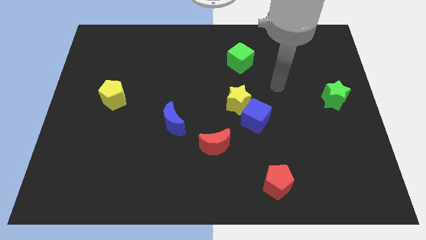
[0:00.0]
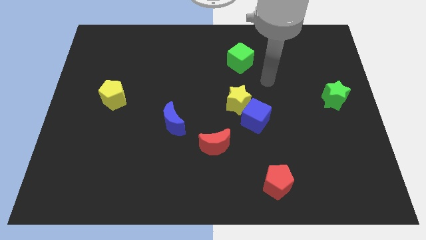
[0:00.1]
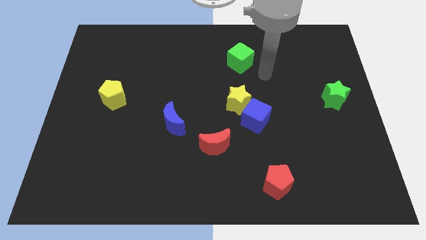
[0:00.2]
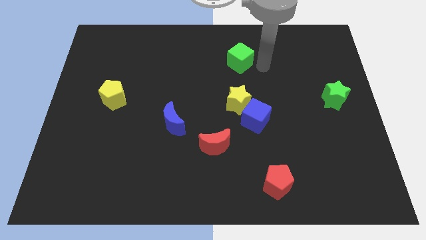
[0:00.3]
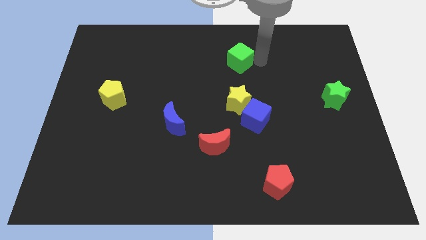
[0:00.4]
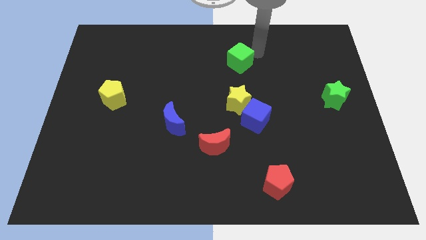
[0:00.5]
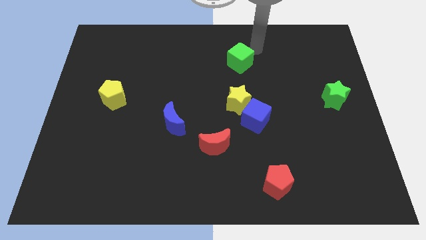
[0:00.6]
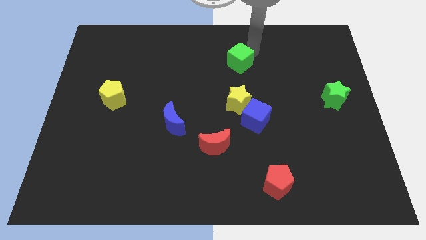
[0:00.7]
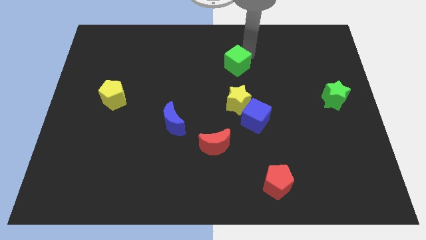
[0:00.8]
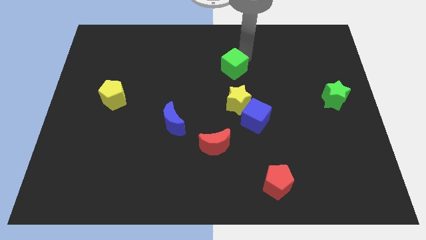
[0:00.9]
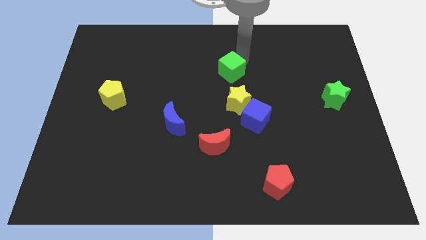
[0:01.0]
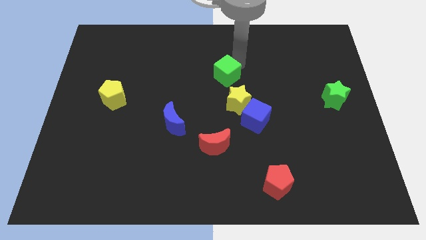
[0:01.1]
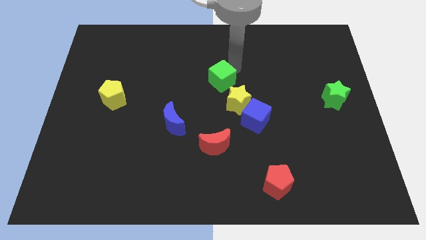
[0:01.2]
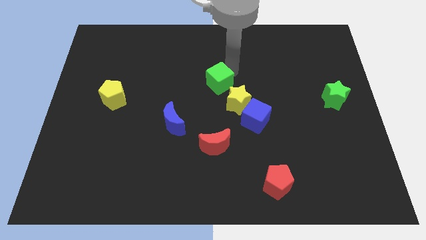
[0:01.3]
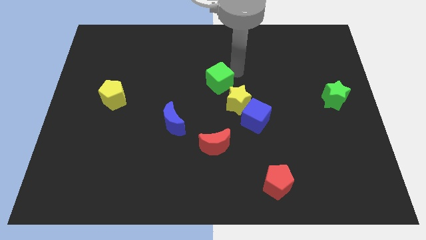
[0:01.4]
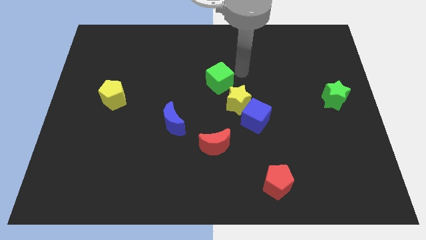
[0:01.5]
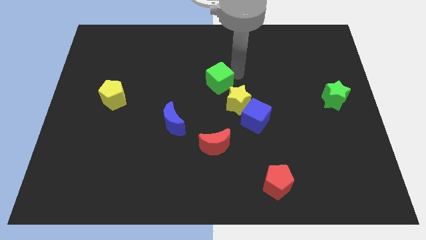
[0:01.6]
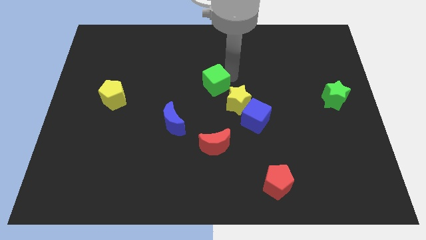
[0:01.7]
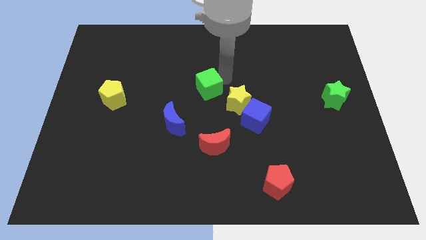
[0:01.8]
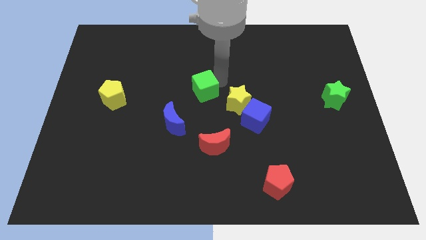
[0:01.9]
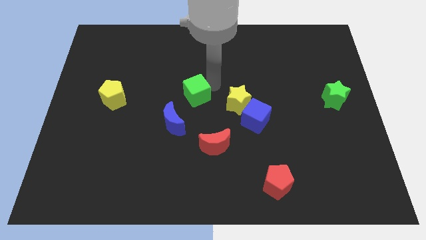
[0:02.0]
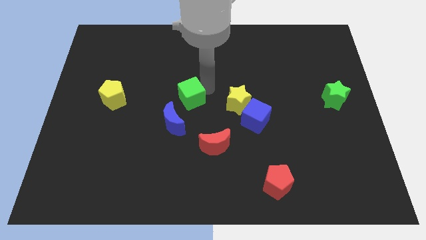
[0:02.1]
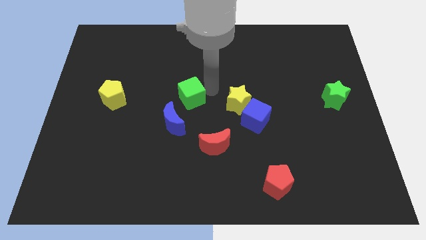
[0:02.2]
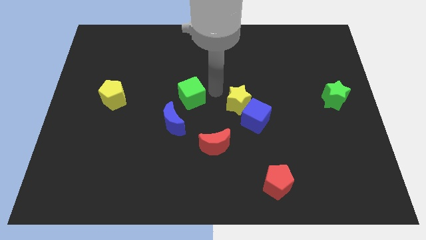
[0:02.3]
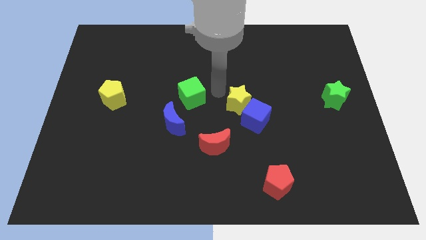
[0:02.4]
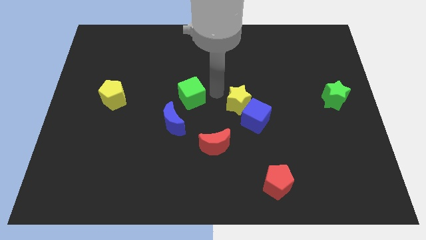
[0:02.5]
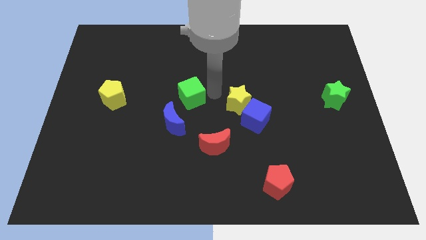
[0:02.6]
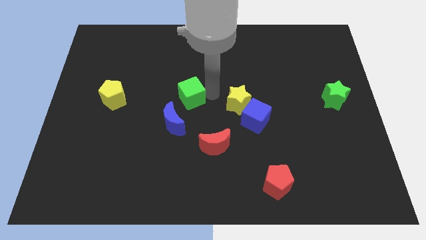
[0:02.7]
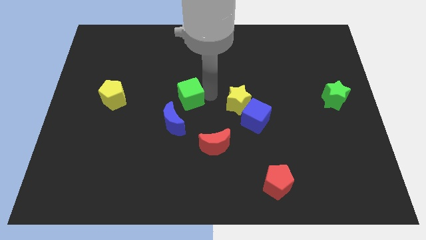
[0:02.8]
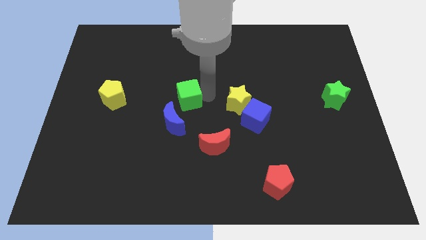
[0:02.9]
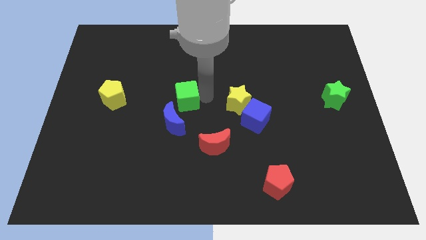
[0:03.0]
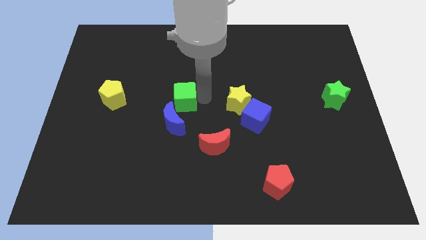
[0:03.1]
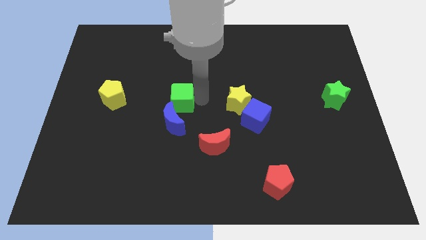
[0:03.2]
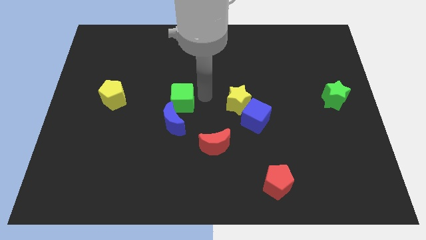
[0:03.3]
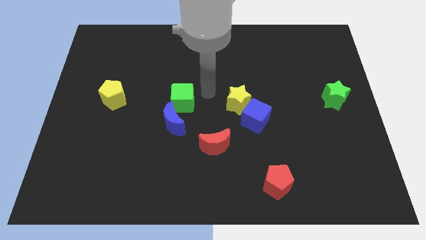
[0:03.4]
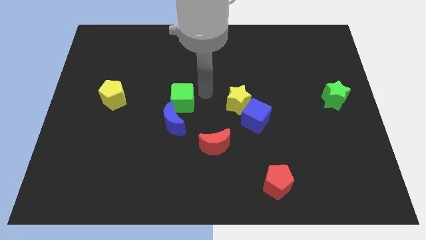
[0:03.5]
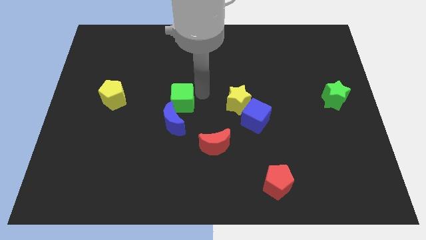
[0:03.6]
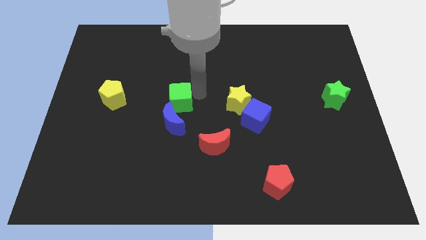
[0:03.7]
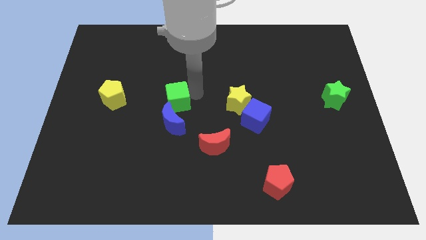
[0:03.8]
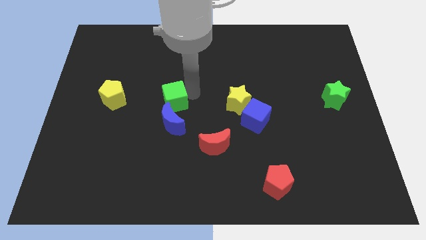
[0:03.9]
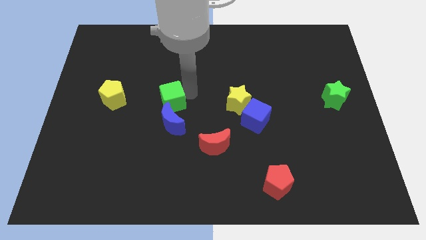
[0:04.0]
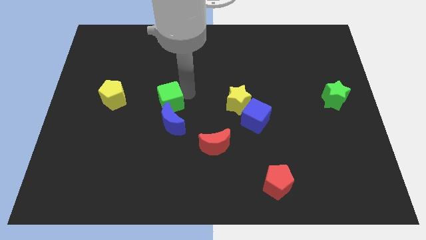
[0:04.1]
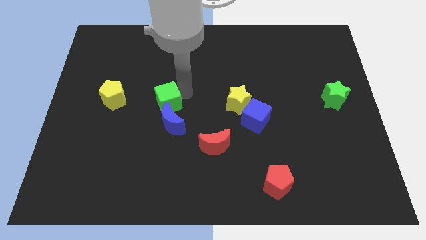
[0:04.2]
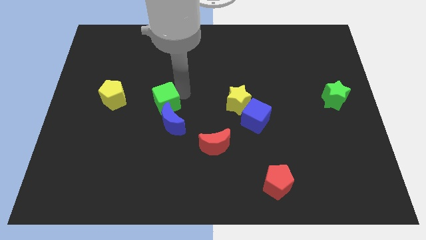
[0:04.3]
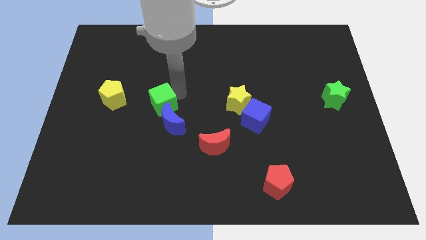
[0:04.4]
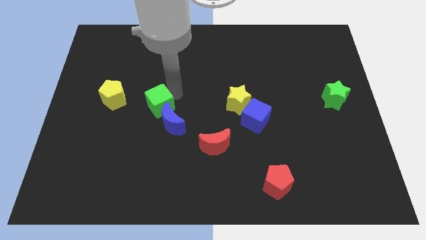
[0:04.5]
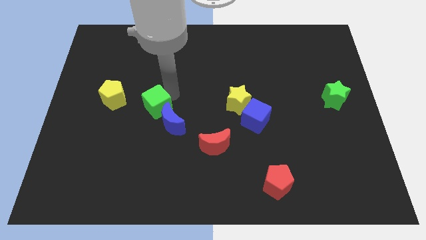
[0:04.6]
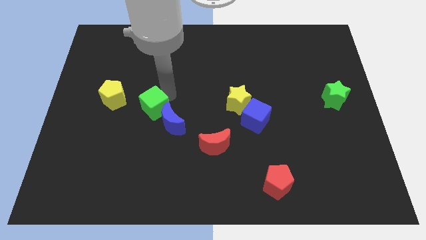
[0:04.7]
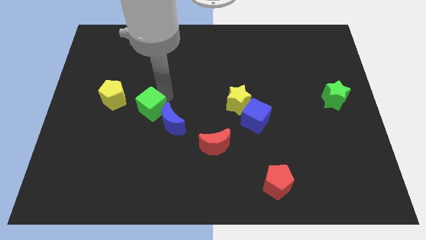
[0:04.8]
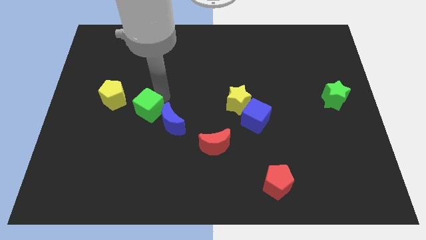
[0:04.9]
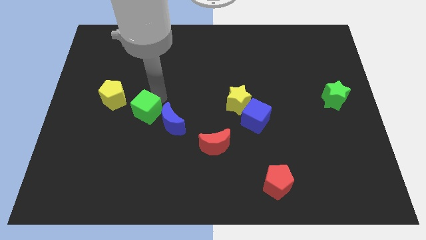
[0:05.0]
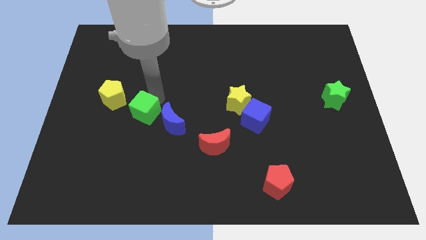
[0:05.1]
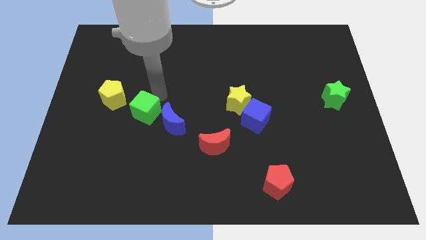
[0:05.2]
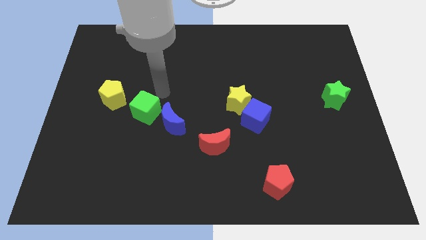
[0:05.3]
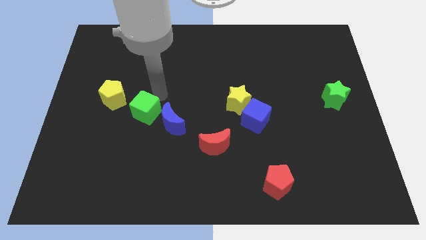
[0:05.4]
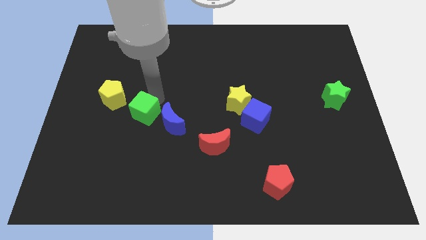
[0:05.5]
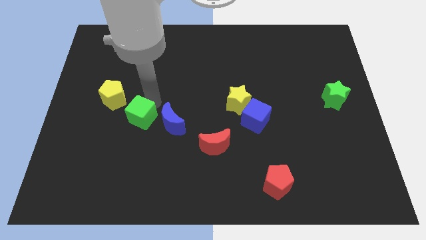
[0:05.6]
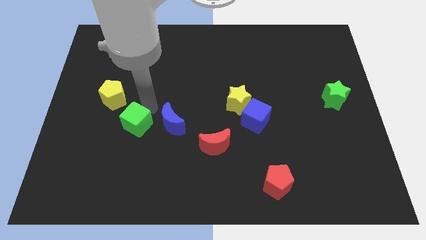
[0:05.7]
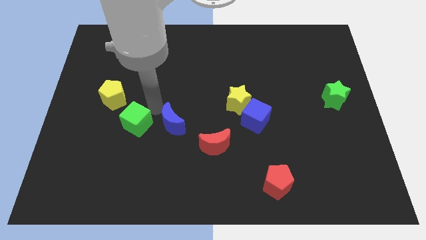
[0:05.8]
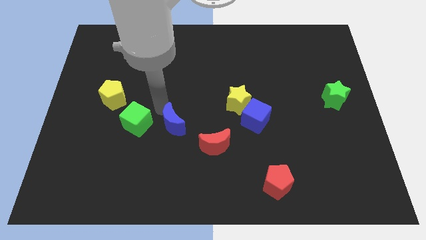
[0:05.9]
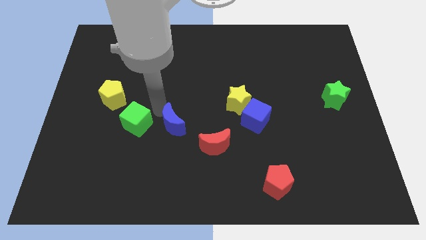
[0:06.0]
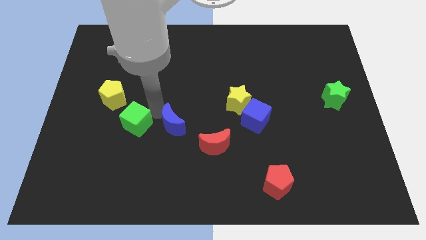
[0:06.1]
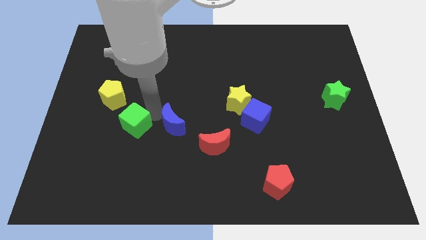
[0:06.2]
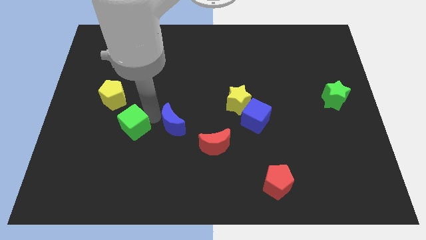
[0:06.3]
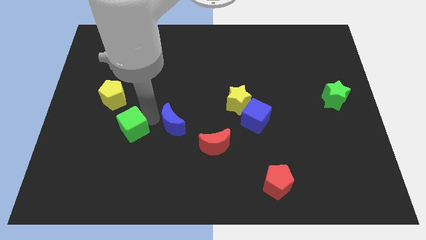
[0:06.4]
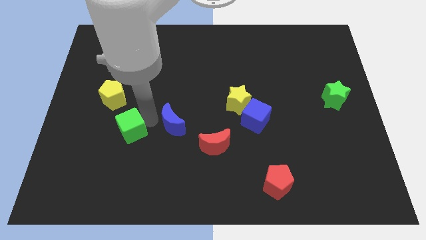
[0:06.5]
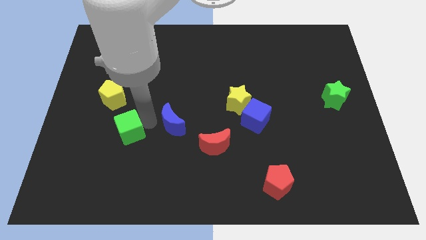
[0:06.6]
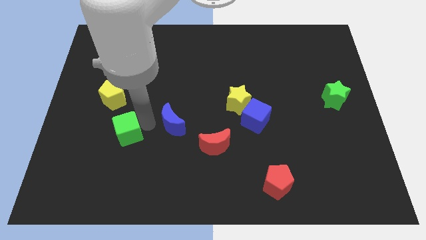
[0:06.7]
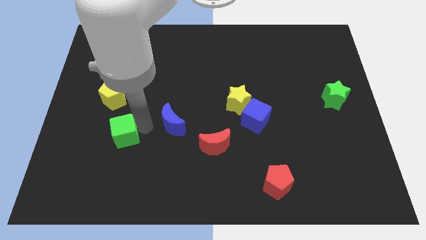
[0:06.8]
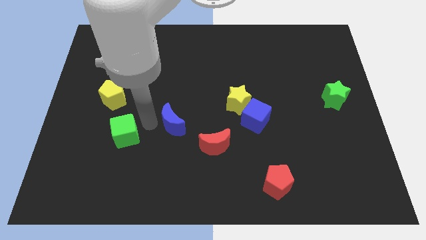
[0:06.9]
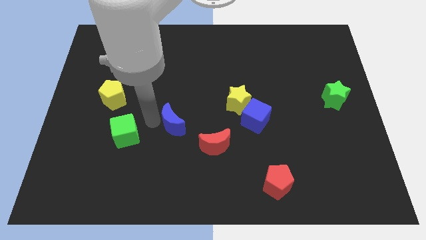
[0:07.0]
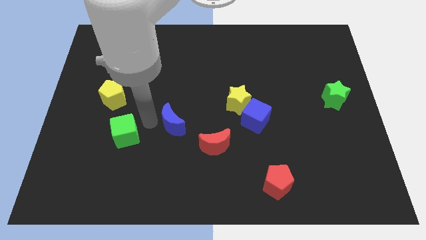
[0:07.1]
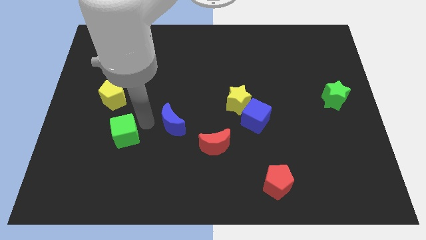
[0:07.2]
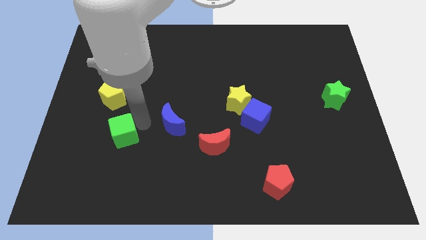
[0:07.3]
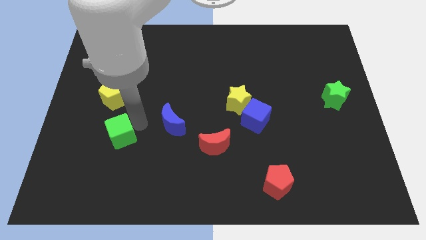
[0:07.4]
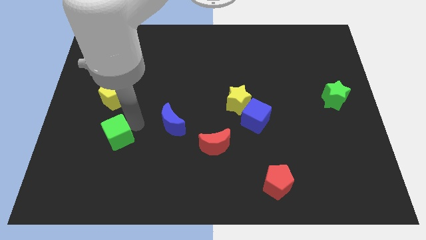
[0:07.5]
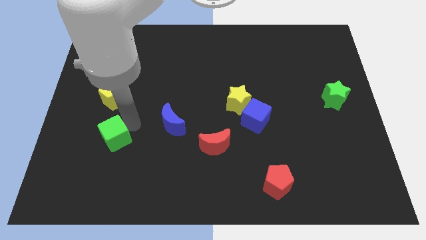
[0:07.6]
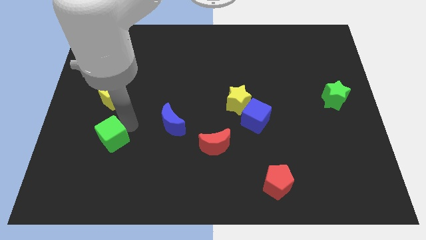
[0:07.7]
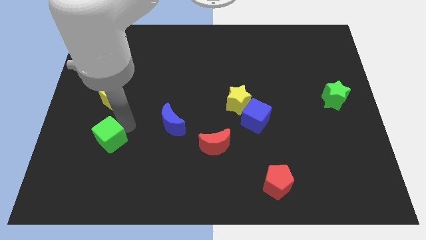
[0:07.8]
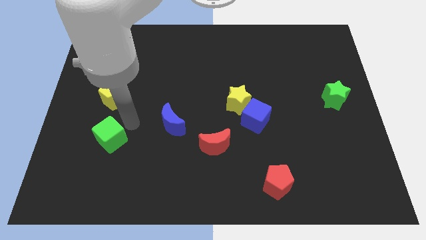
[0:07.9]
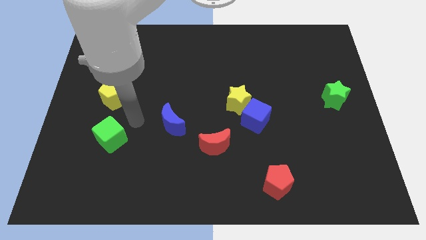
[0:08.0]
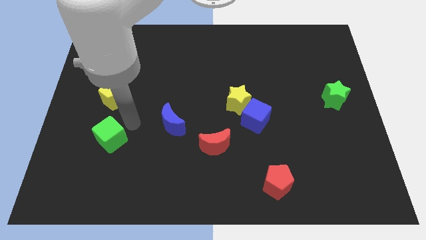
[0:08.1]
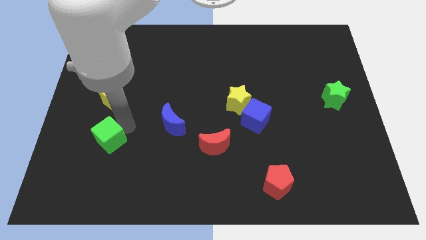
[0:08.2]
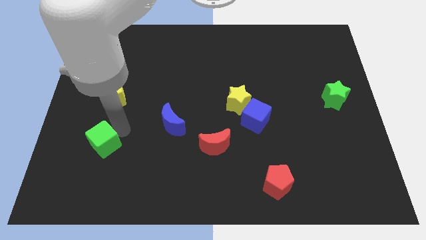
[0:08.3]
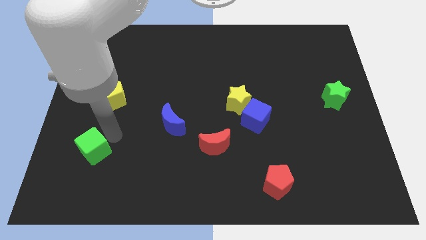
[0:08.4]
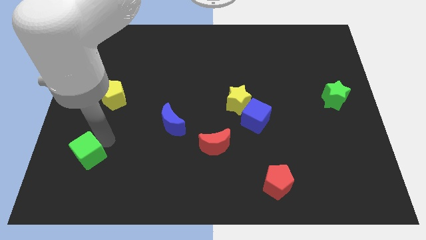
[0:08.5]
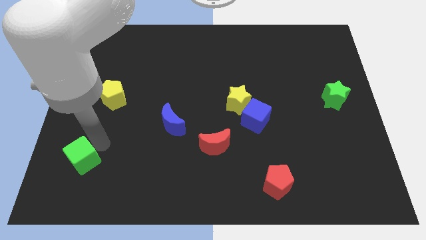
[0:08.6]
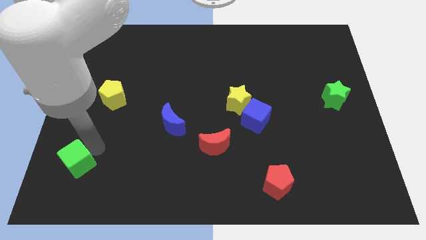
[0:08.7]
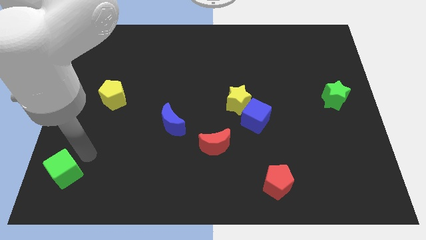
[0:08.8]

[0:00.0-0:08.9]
move the green cube to the bottom left of the board
